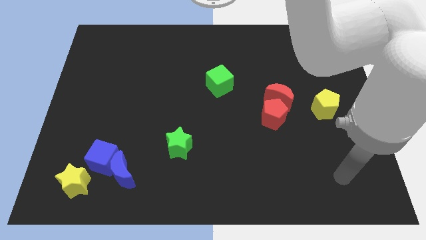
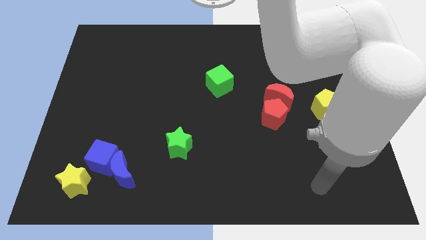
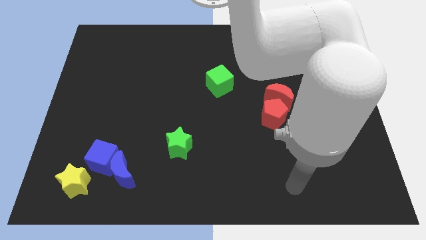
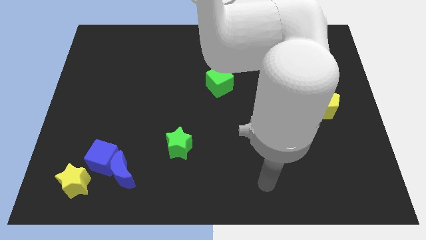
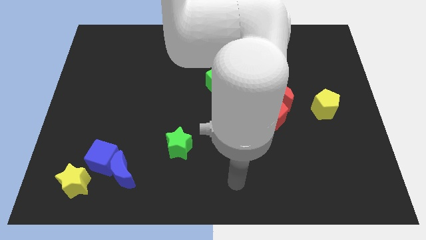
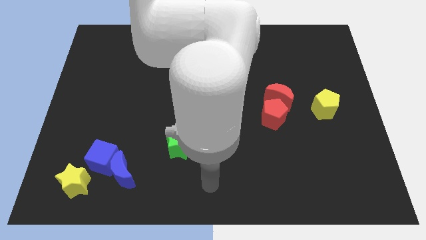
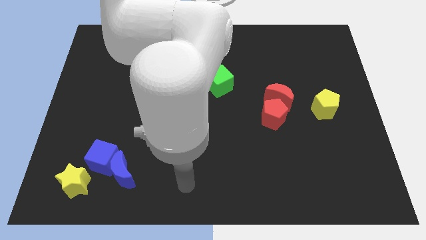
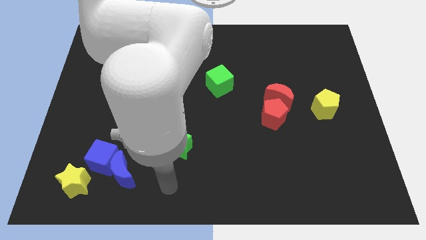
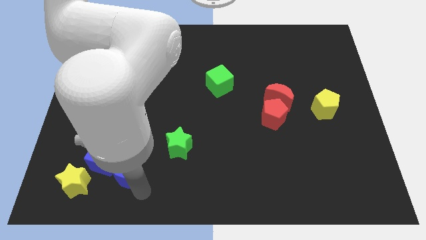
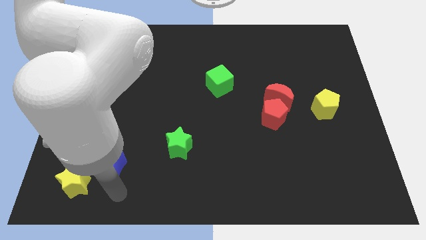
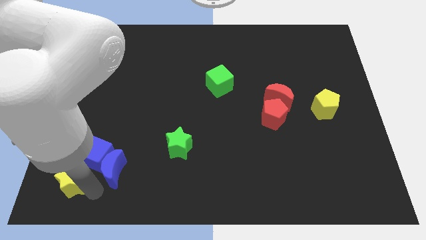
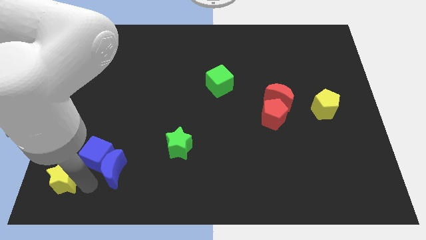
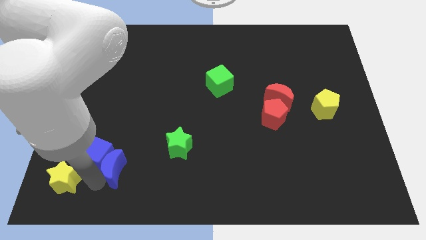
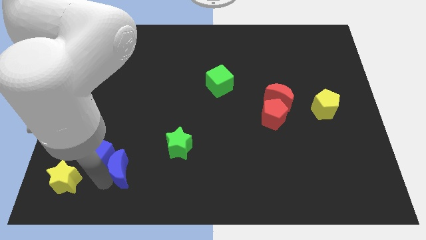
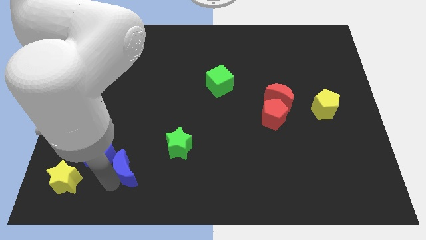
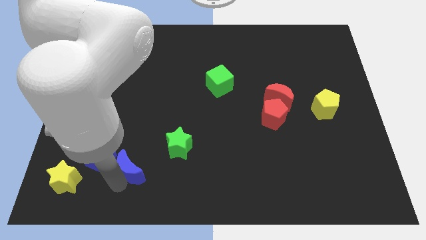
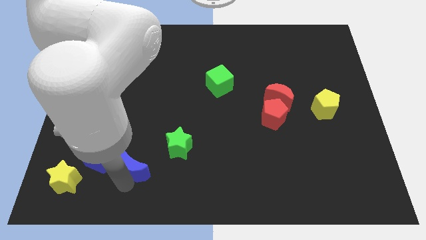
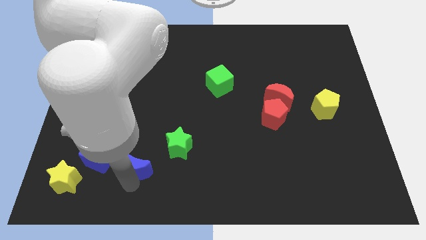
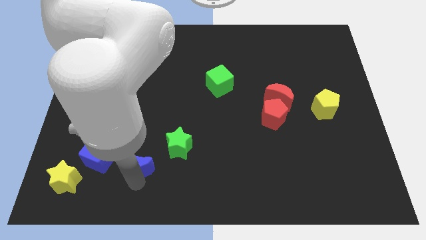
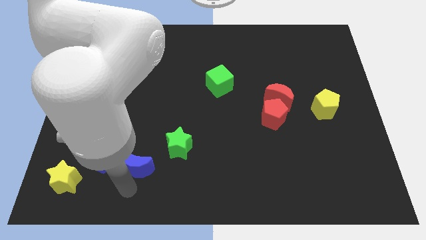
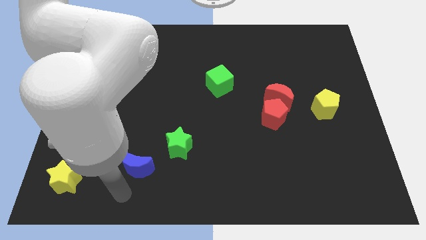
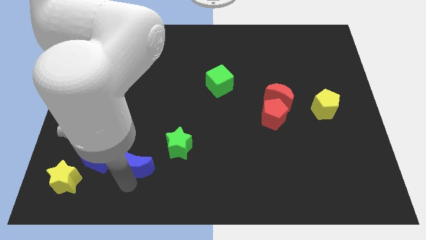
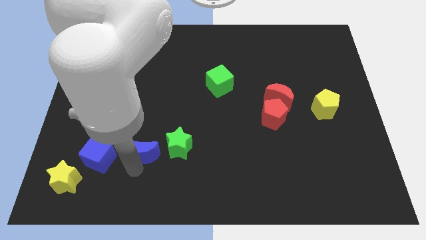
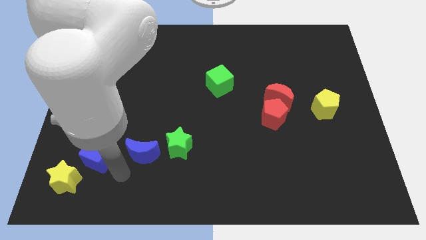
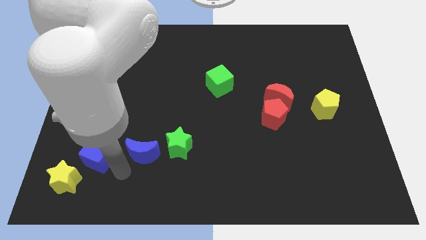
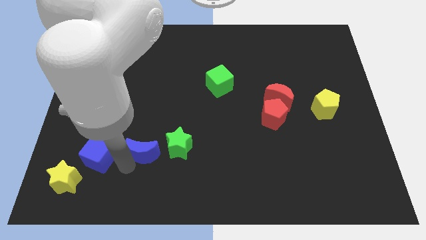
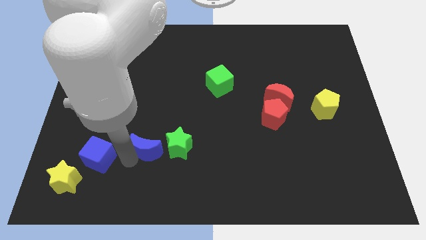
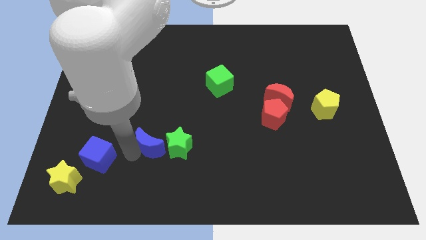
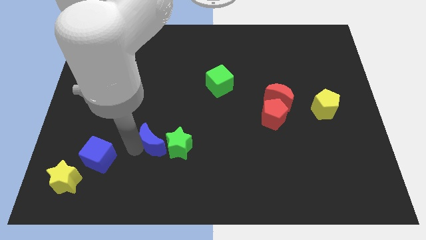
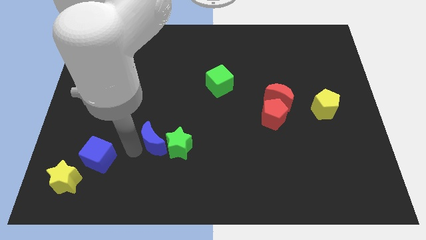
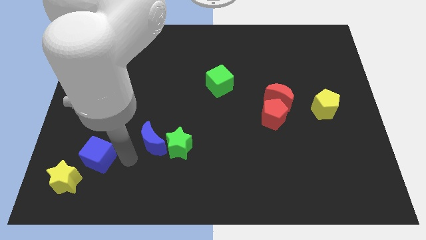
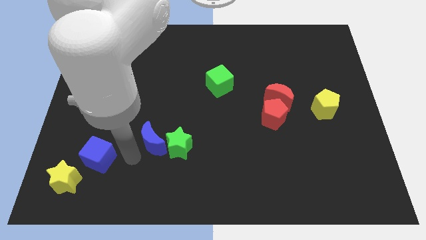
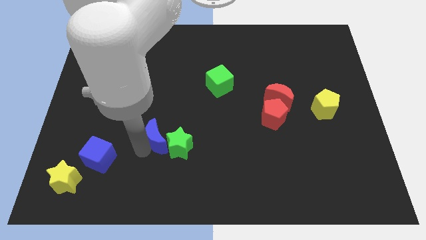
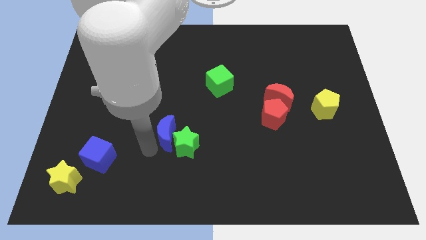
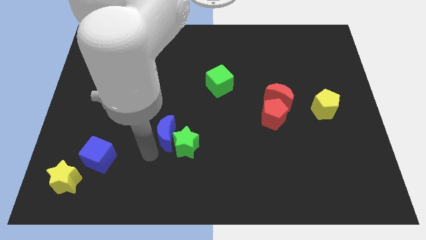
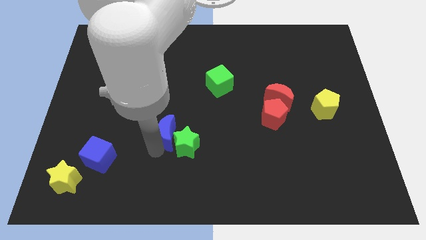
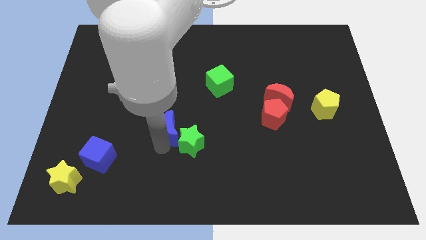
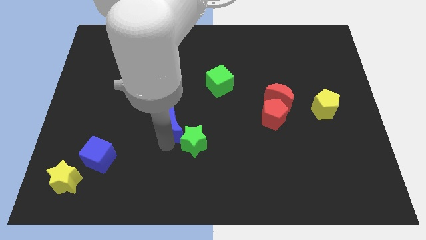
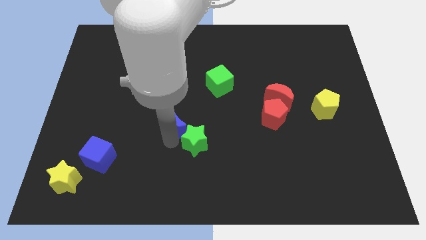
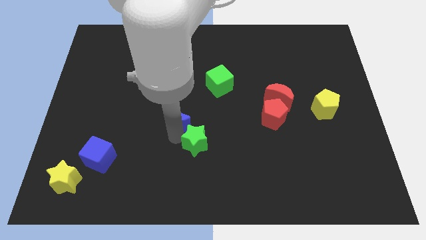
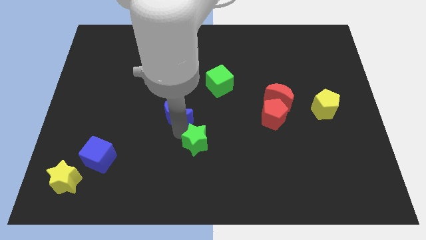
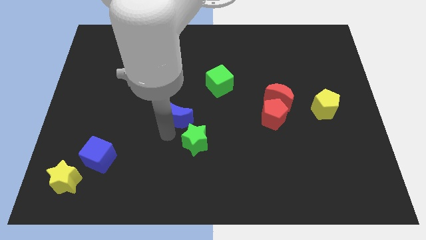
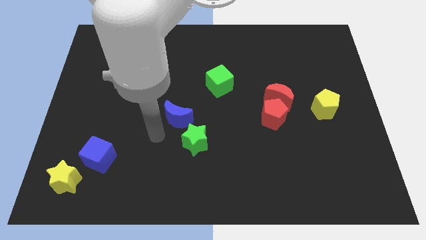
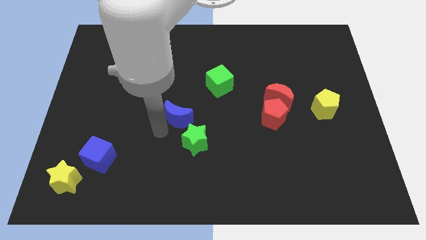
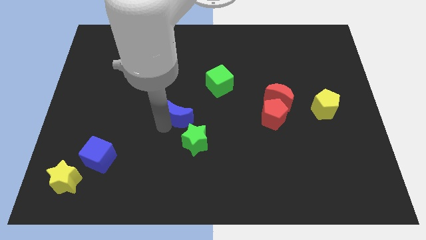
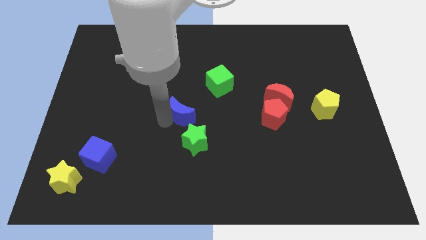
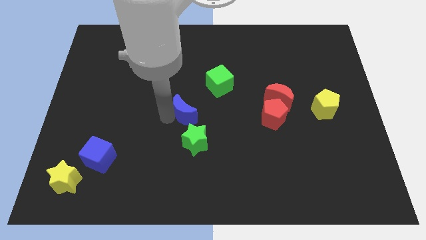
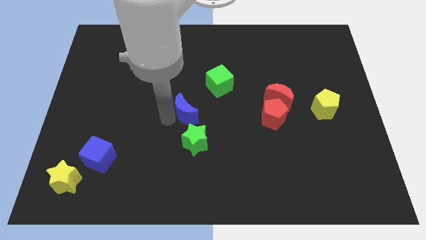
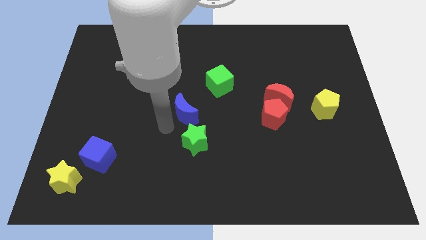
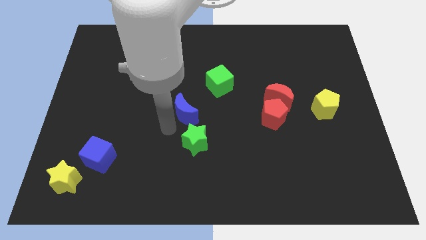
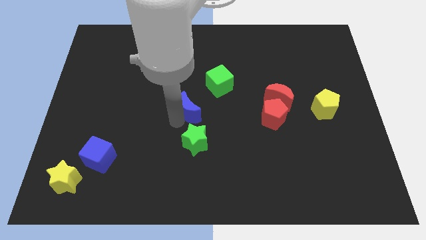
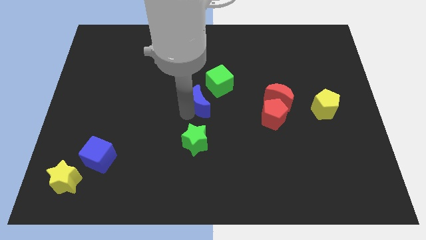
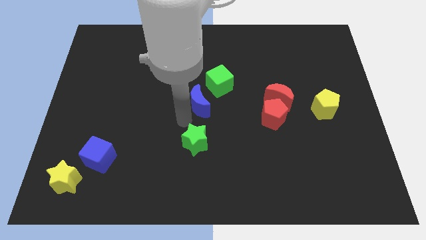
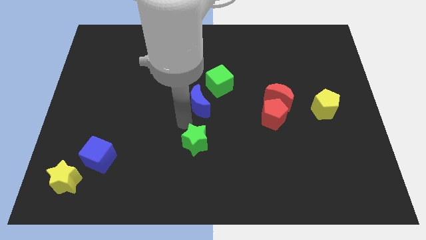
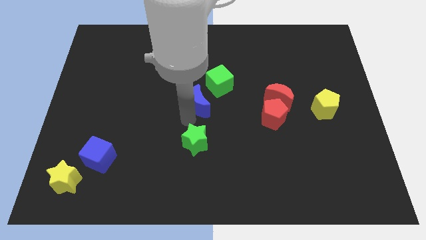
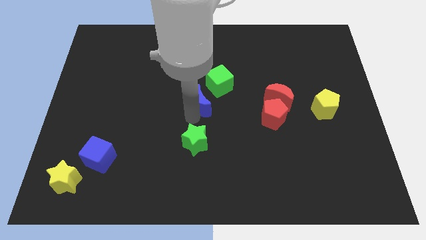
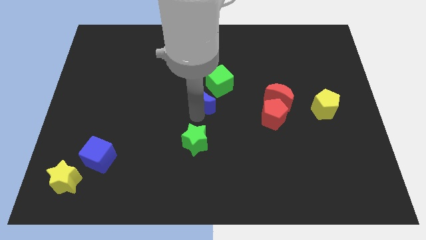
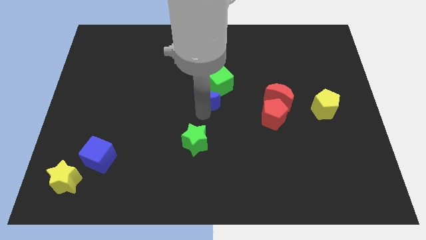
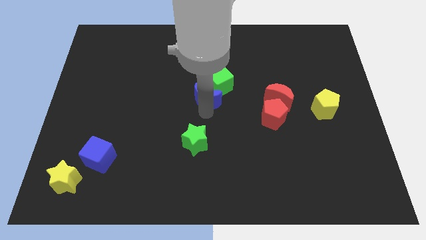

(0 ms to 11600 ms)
push the blue moon towards the green cube

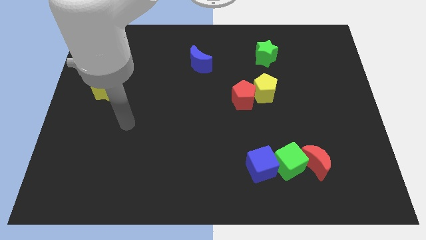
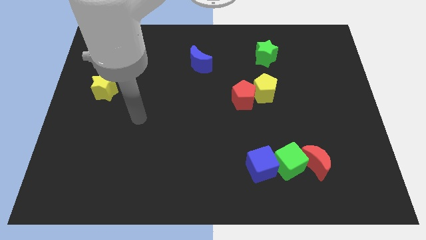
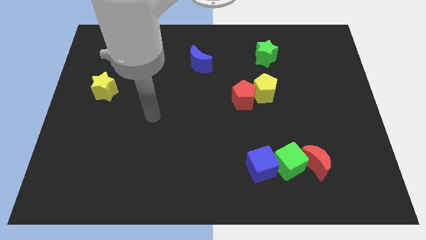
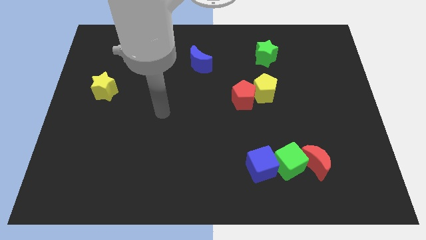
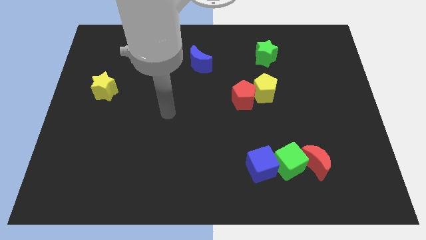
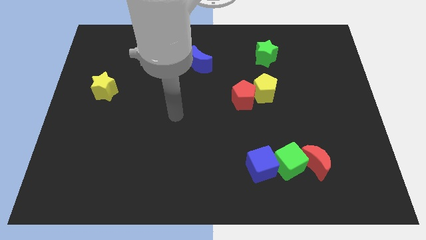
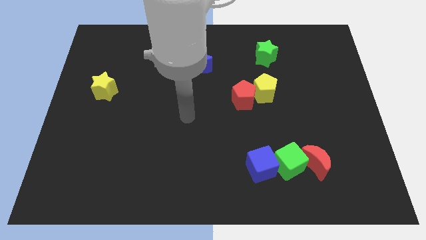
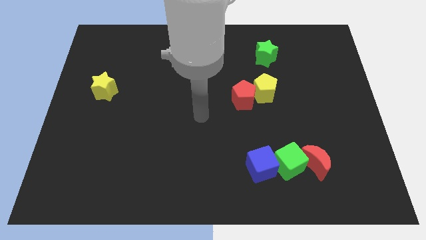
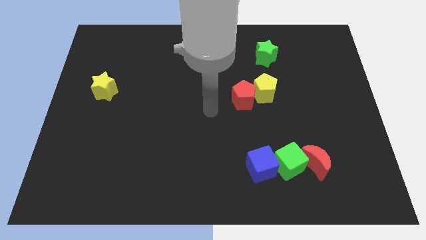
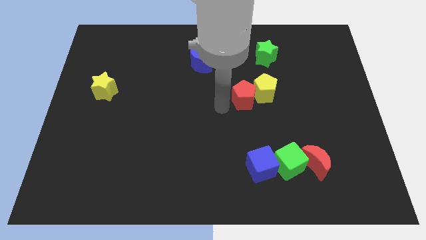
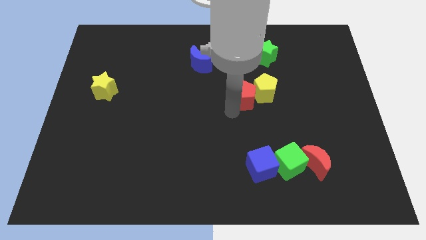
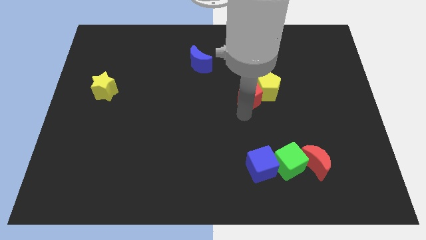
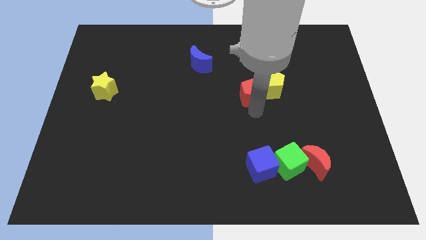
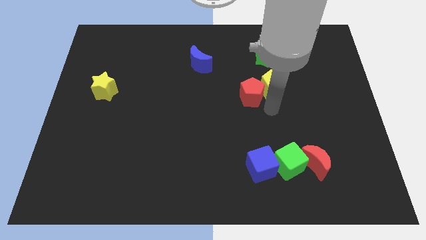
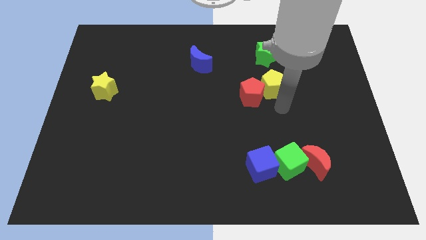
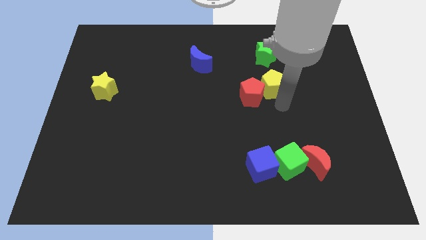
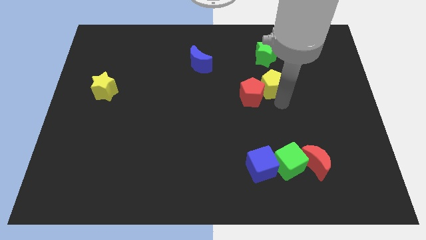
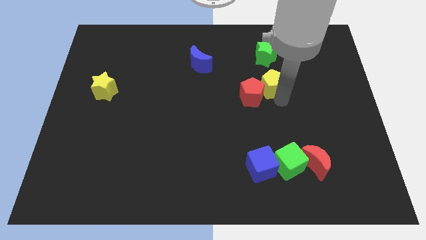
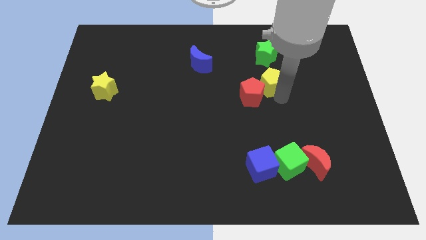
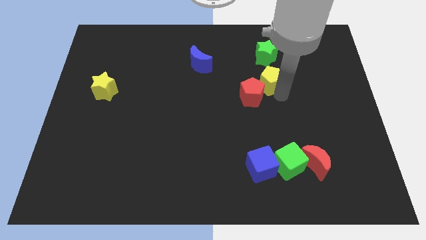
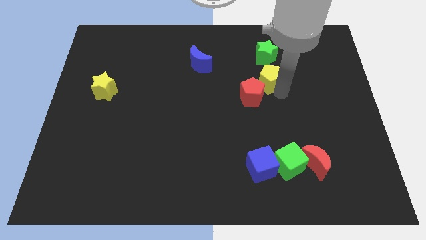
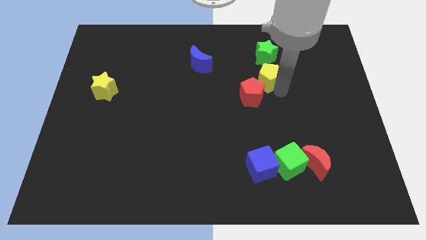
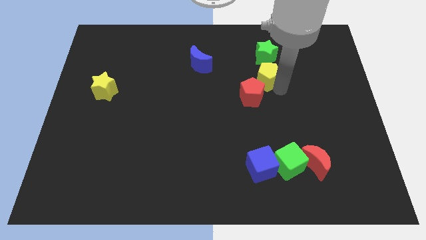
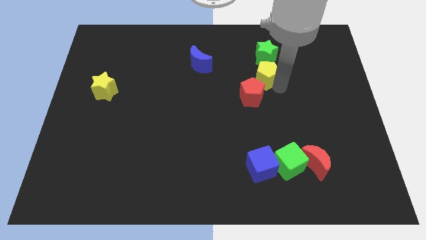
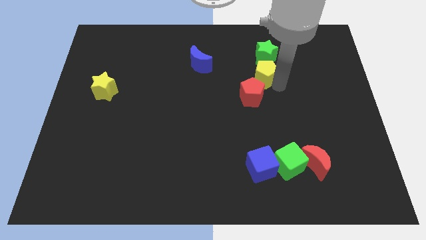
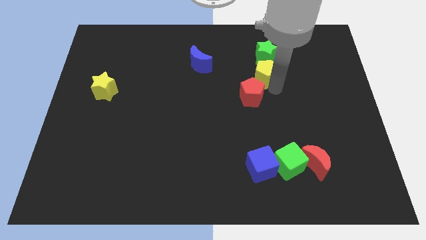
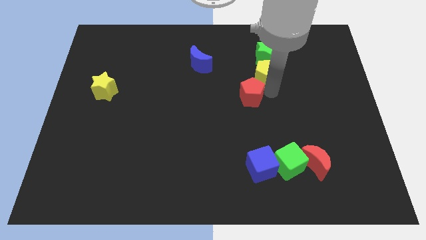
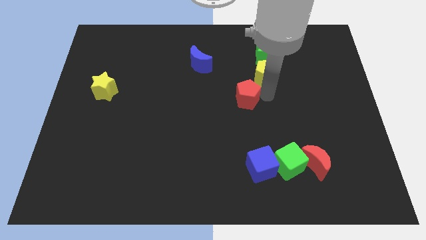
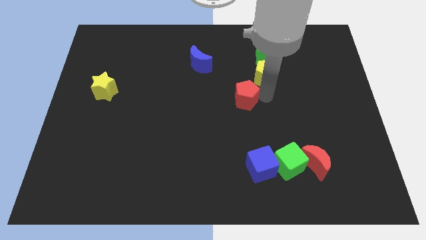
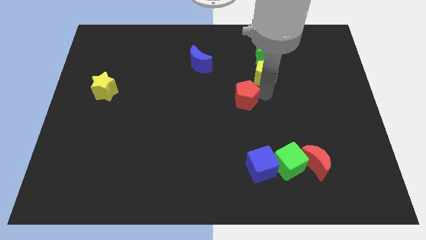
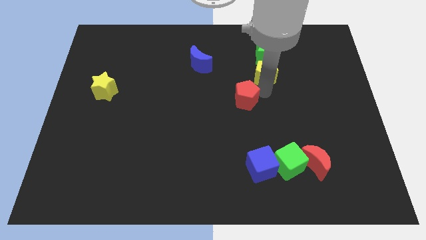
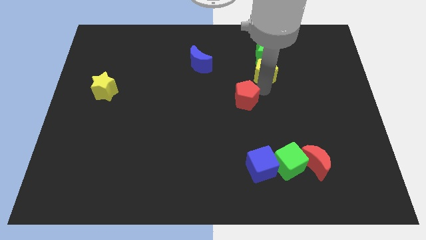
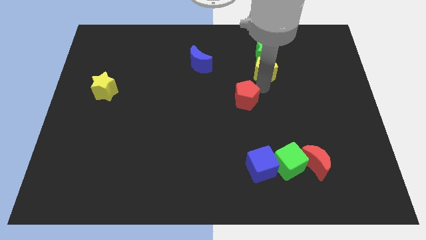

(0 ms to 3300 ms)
move the yellow pentagon towards the green star
